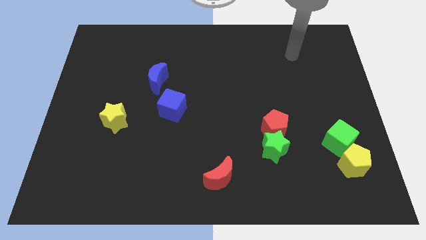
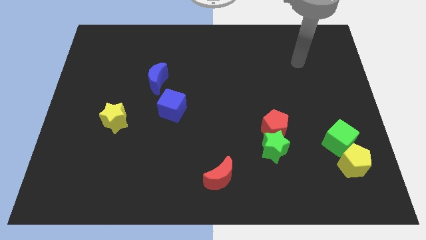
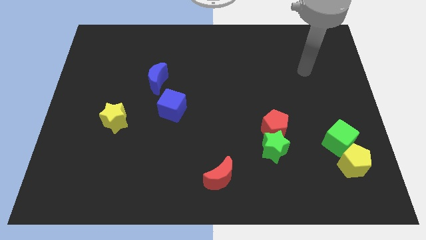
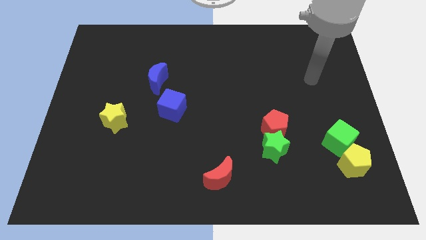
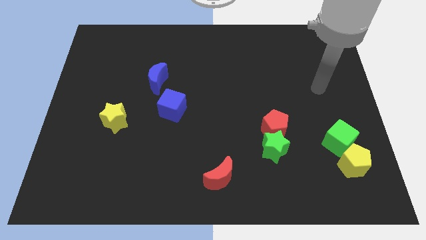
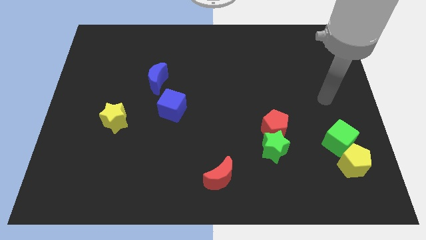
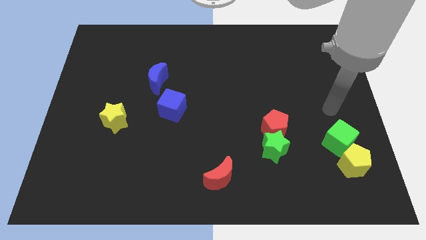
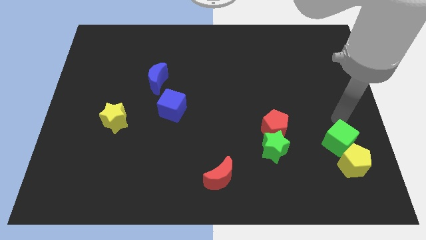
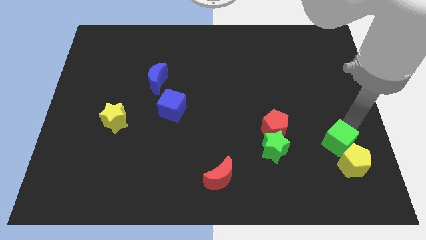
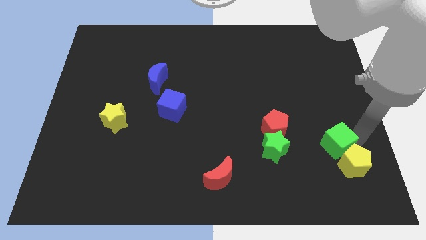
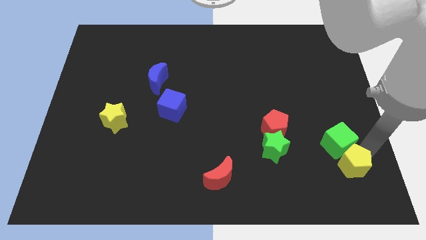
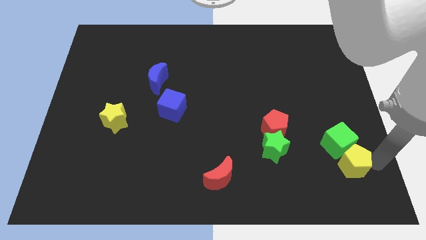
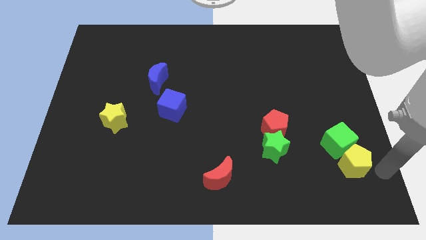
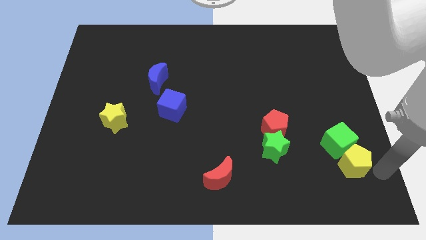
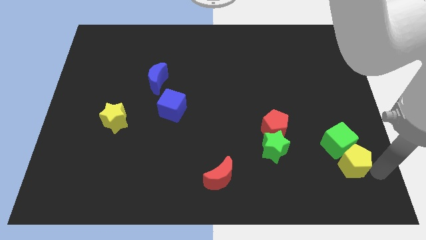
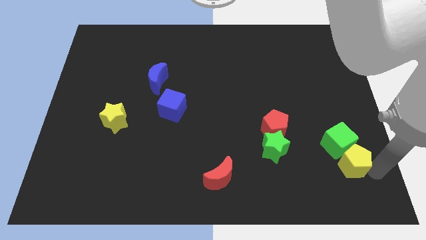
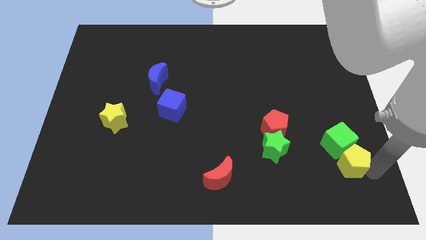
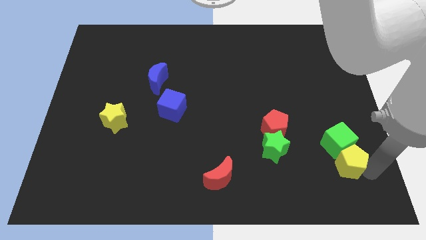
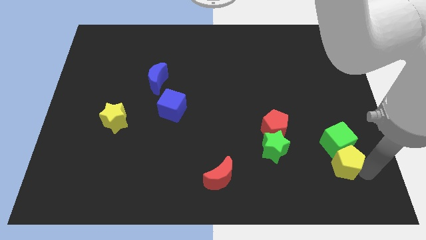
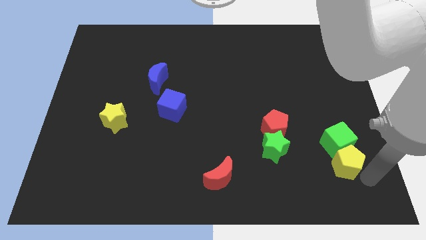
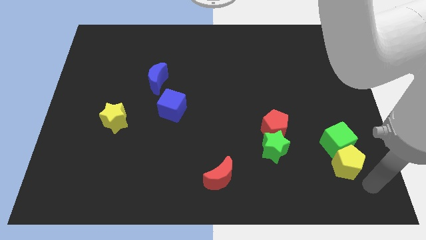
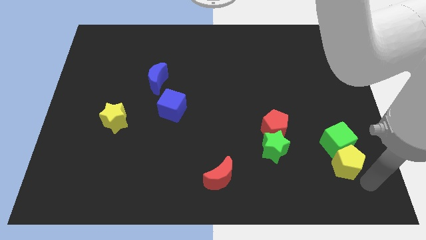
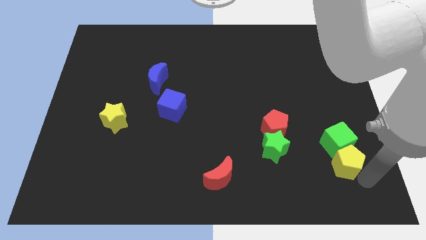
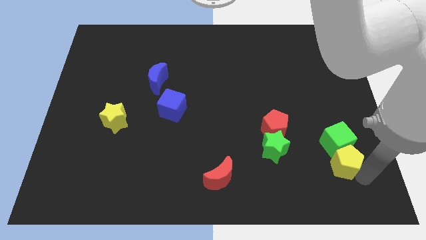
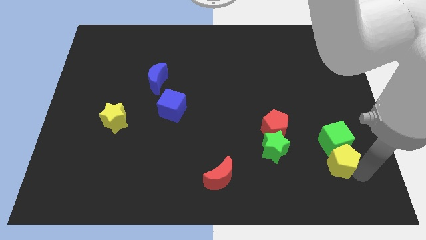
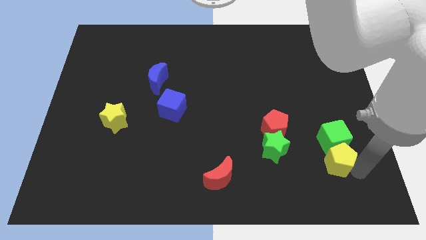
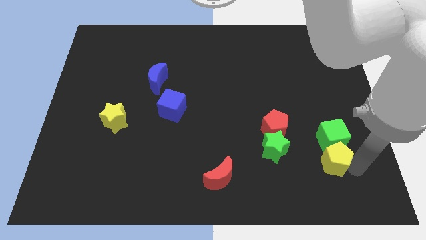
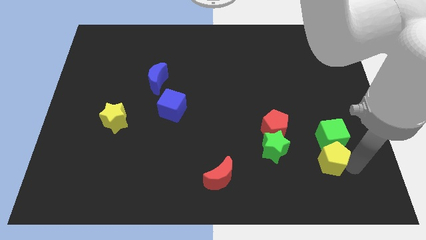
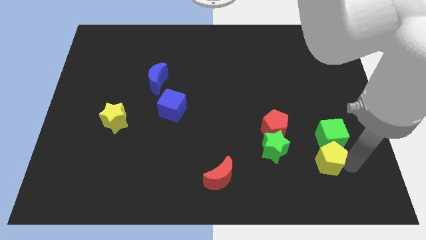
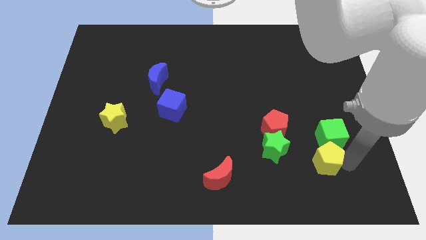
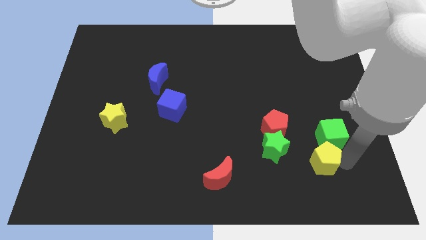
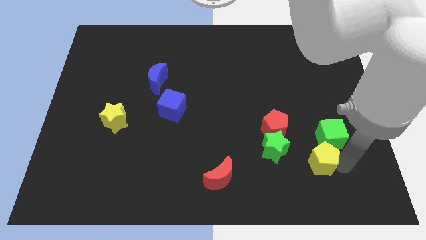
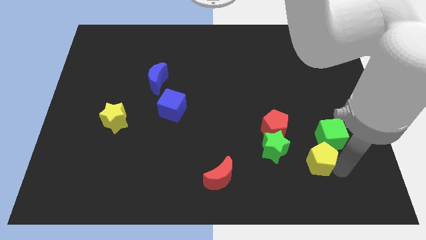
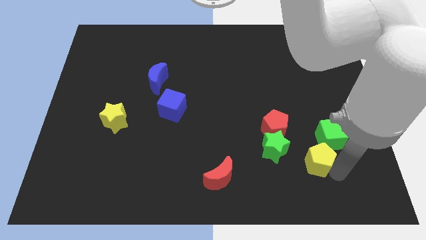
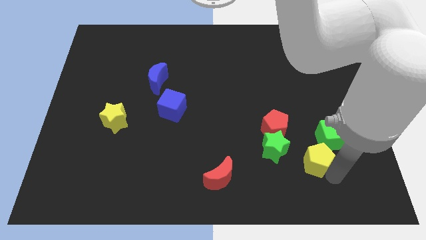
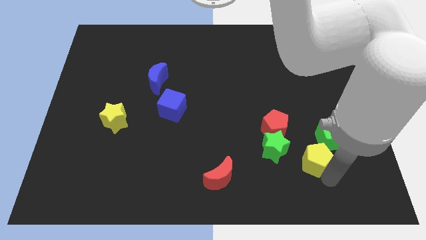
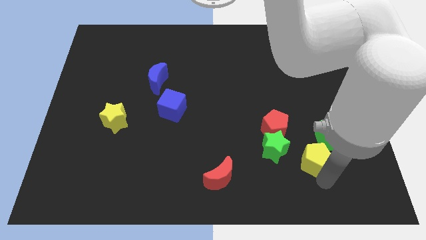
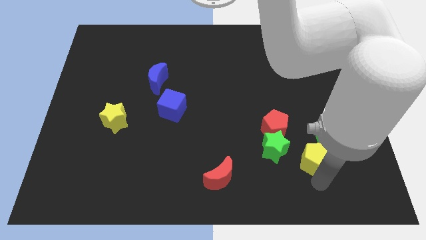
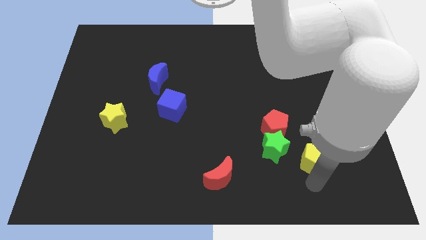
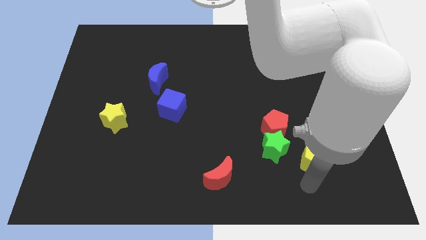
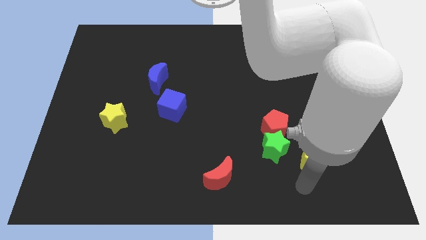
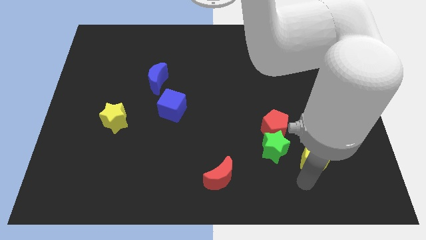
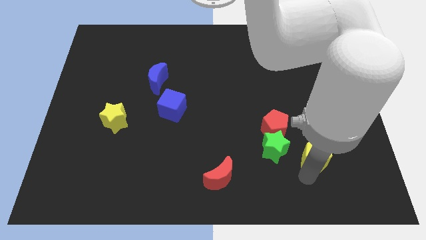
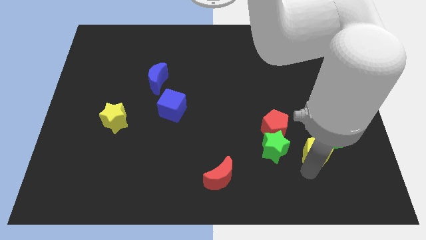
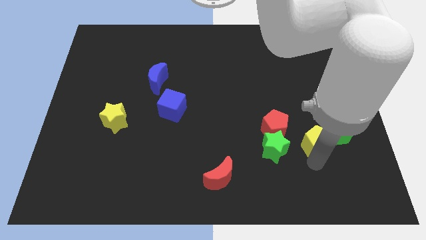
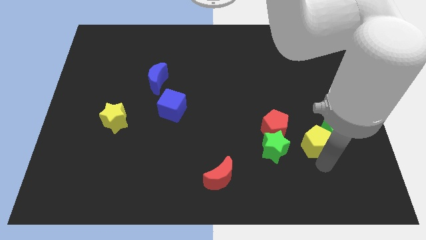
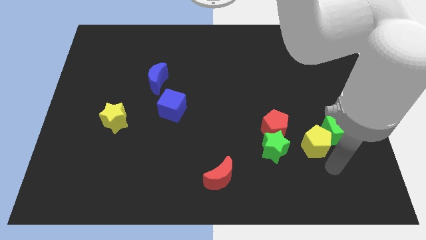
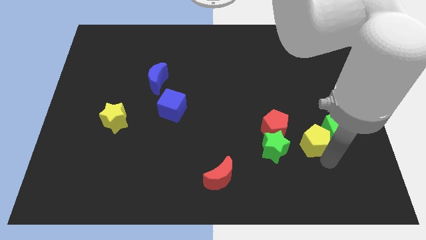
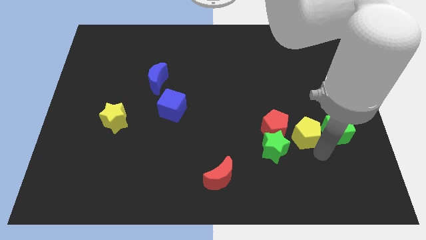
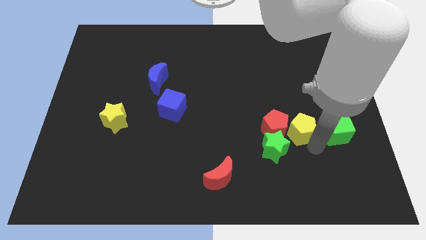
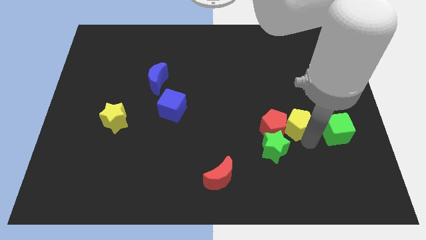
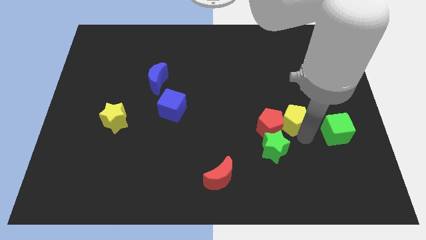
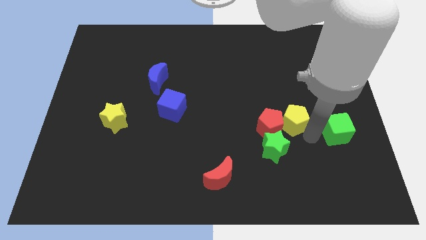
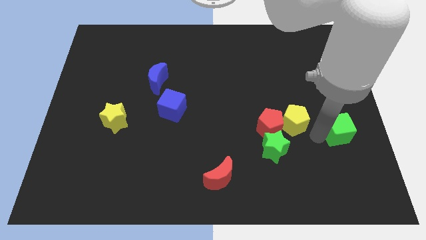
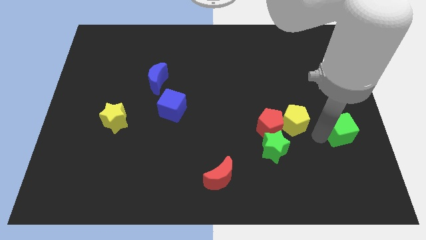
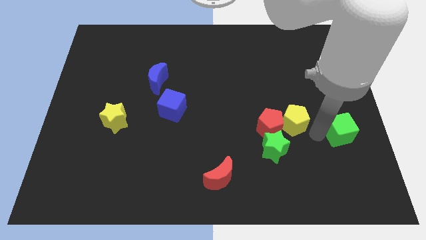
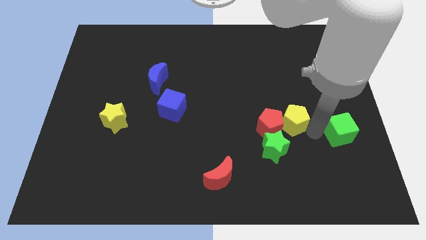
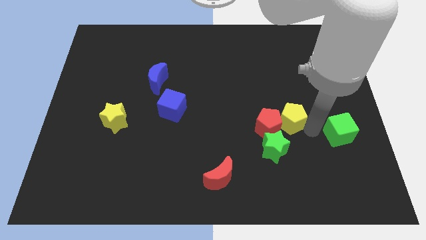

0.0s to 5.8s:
put the yellow pentagon above the green star

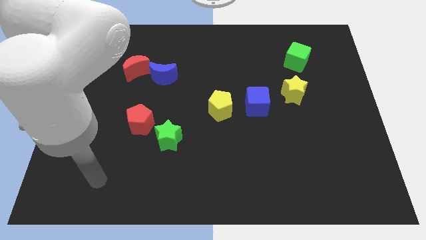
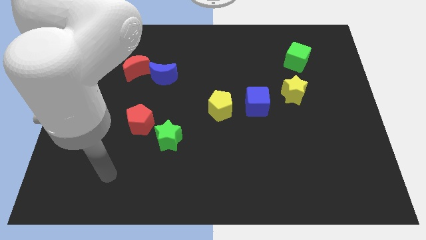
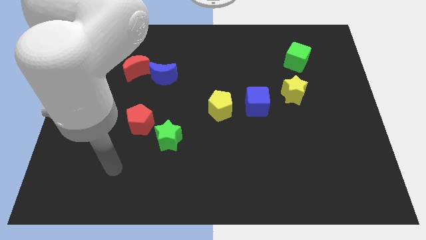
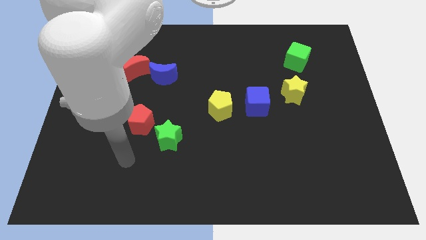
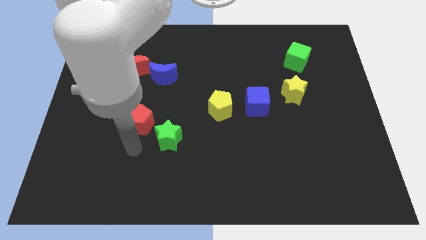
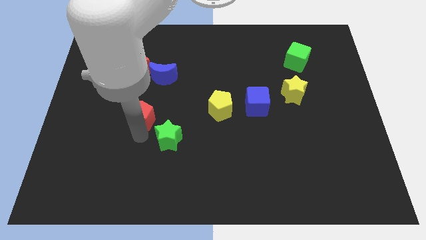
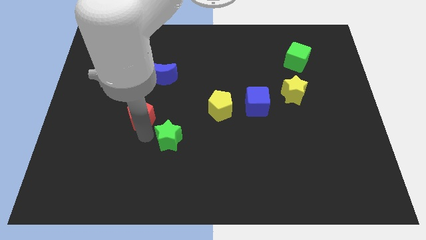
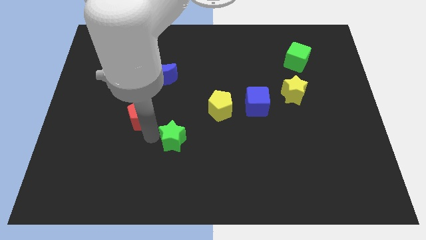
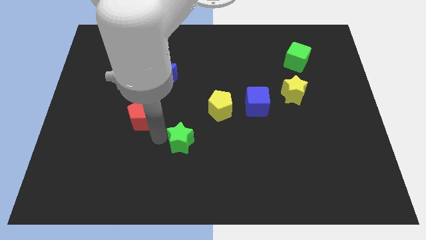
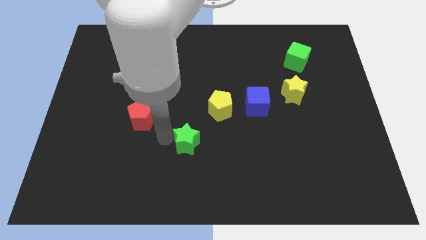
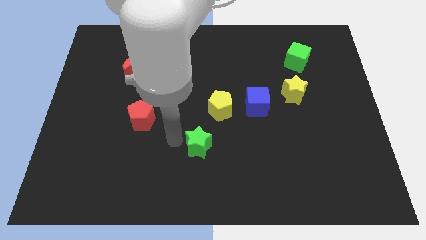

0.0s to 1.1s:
push the green star below the yellow pentagon
